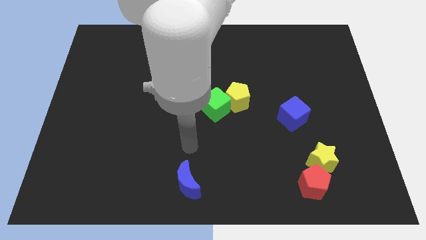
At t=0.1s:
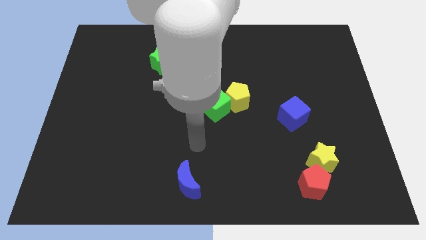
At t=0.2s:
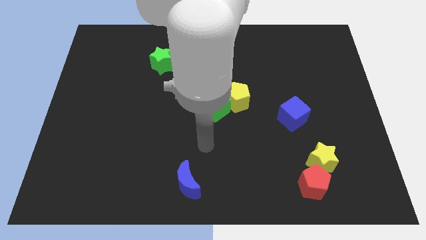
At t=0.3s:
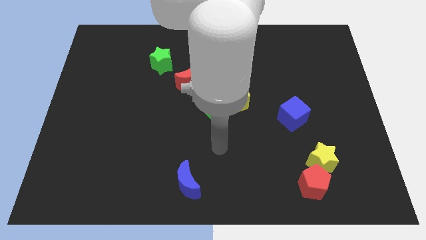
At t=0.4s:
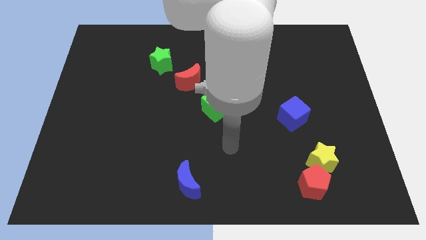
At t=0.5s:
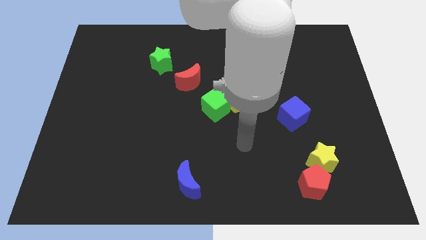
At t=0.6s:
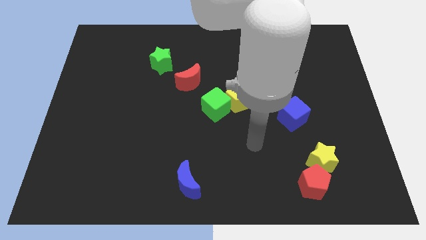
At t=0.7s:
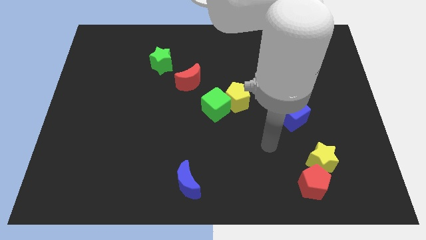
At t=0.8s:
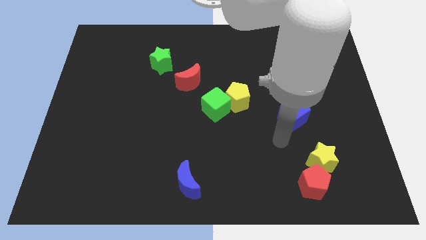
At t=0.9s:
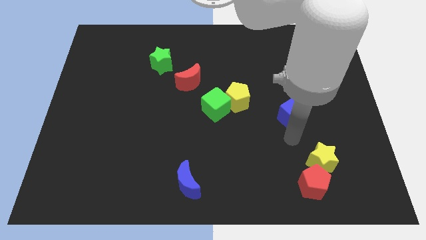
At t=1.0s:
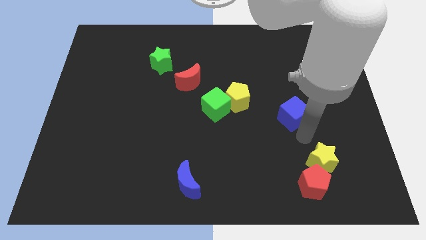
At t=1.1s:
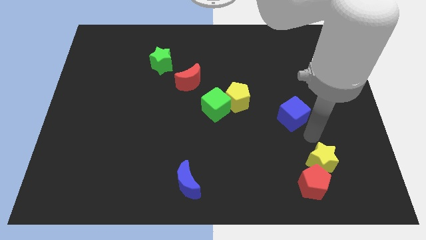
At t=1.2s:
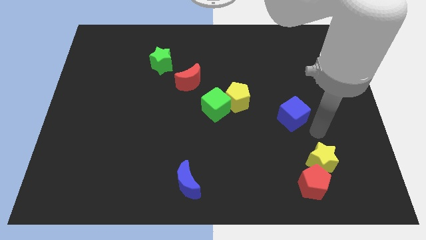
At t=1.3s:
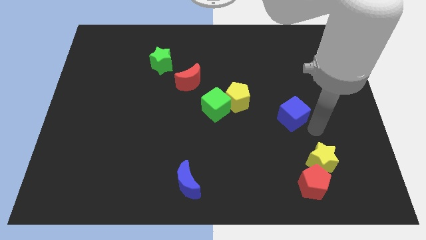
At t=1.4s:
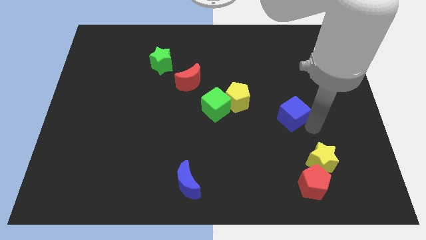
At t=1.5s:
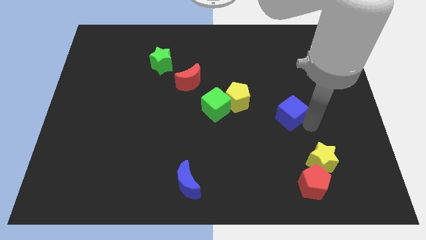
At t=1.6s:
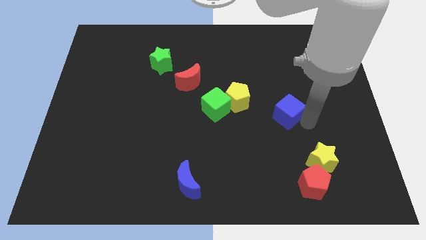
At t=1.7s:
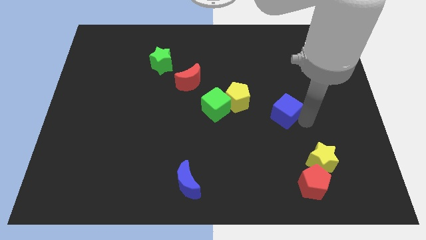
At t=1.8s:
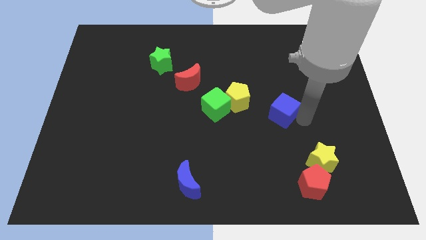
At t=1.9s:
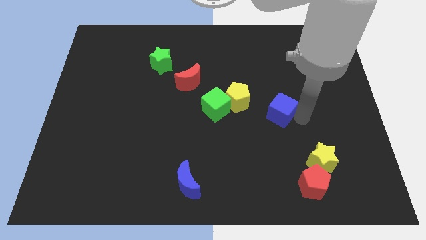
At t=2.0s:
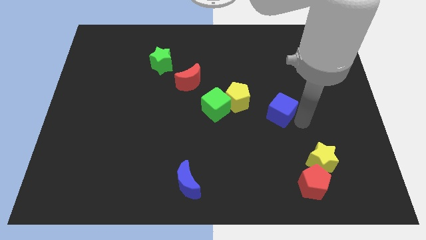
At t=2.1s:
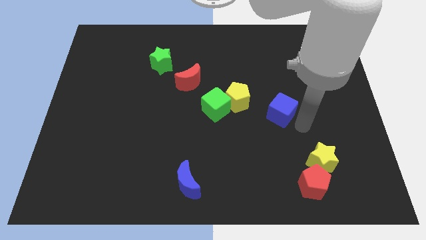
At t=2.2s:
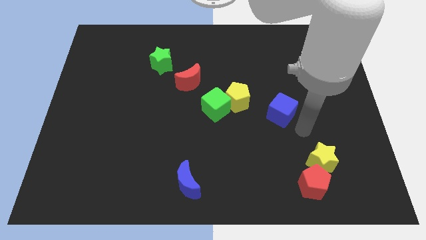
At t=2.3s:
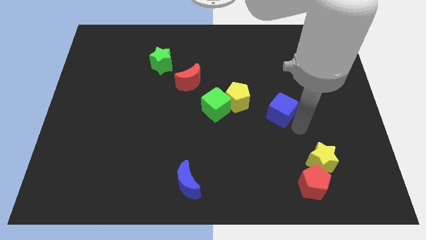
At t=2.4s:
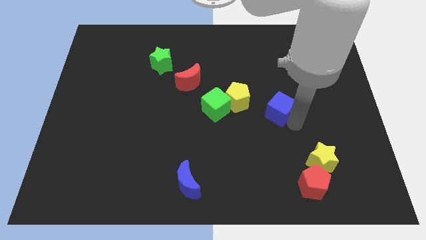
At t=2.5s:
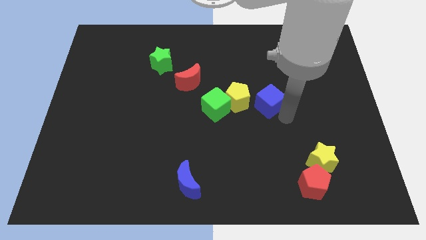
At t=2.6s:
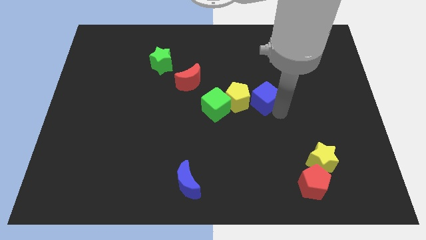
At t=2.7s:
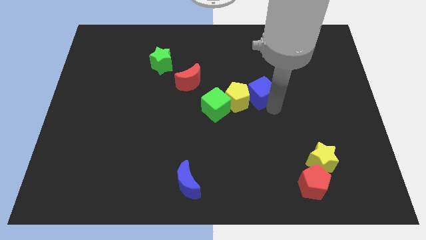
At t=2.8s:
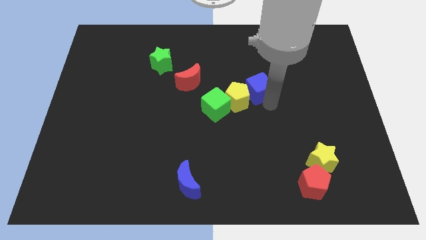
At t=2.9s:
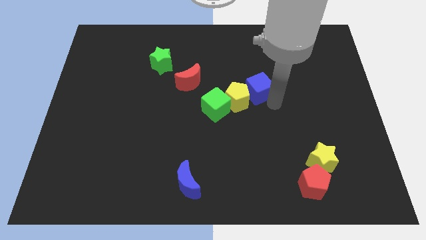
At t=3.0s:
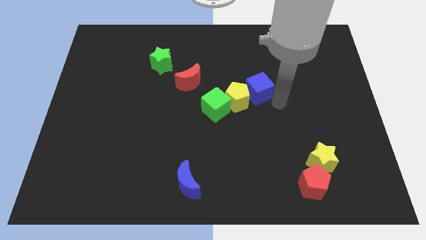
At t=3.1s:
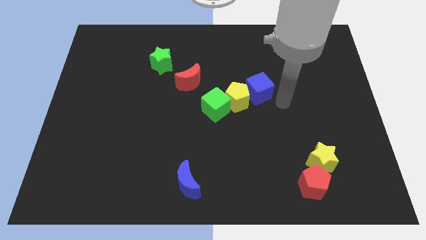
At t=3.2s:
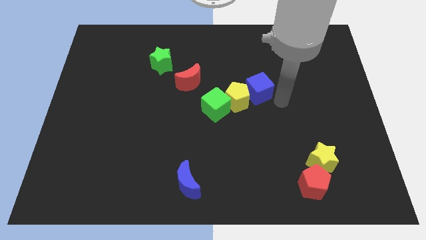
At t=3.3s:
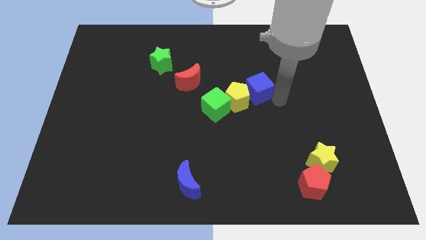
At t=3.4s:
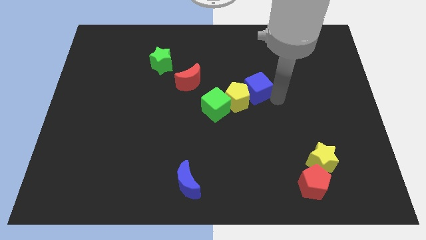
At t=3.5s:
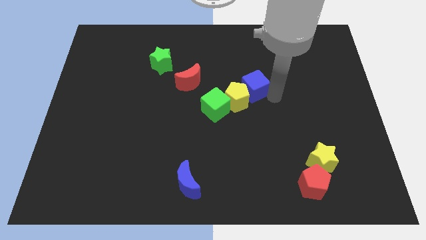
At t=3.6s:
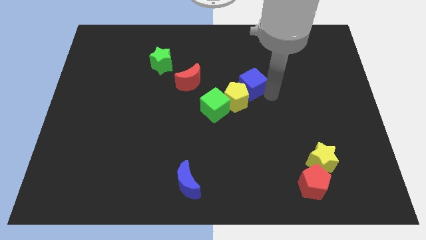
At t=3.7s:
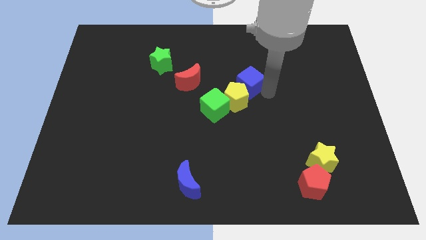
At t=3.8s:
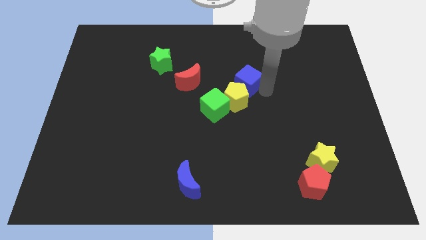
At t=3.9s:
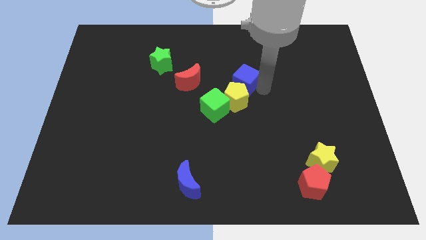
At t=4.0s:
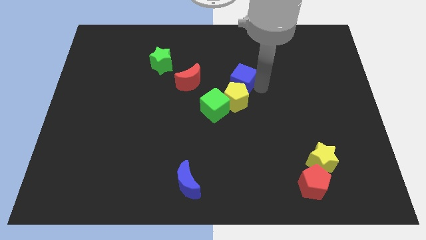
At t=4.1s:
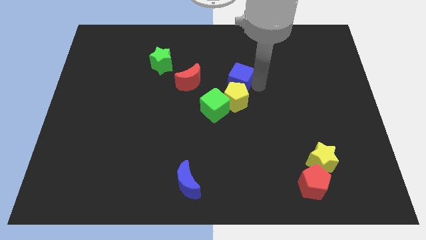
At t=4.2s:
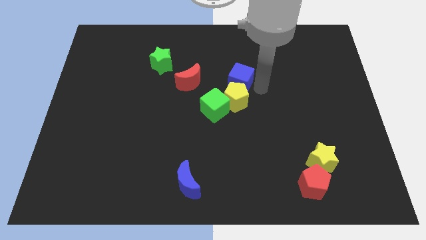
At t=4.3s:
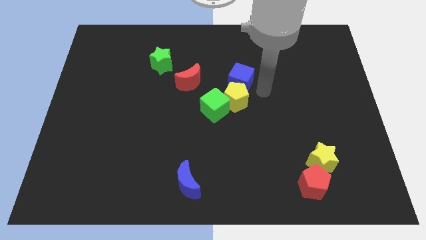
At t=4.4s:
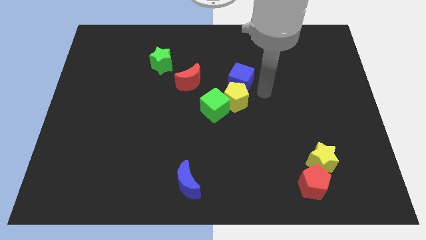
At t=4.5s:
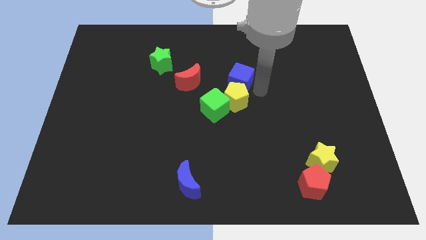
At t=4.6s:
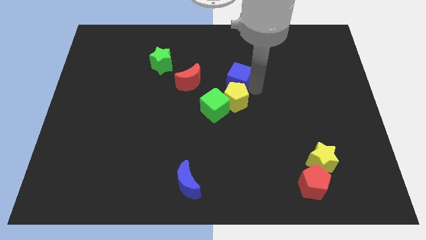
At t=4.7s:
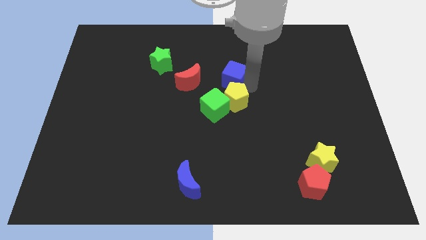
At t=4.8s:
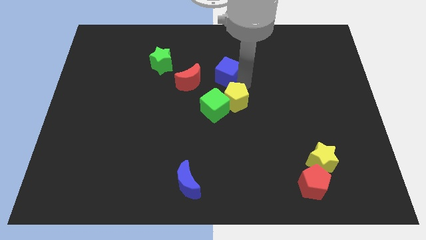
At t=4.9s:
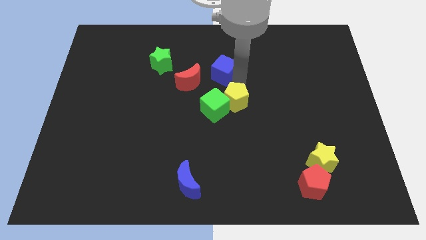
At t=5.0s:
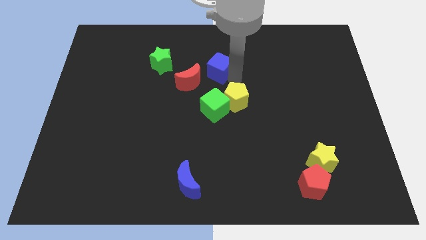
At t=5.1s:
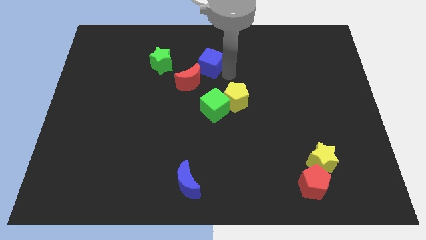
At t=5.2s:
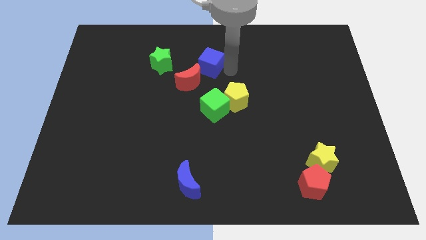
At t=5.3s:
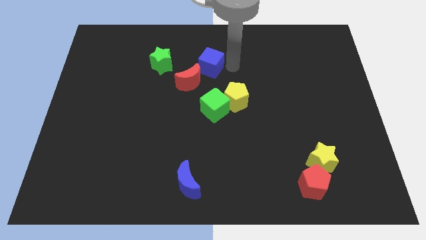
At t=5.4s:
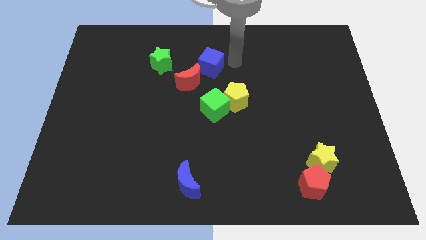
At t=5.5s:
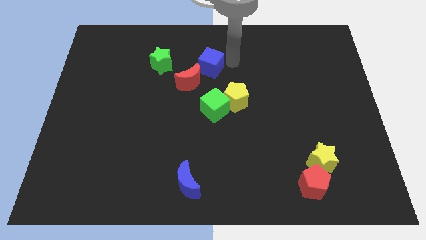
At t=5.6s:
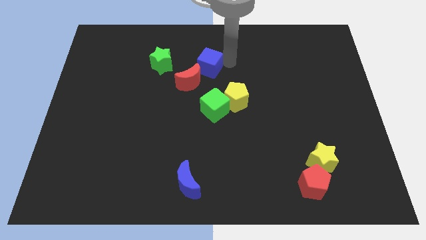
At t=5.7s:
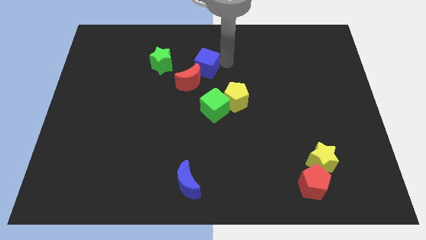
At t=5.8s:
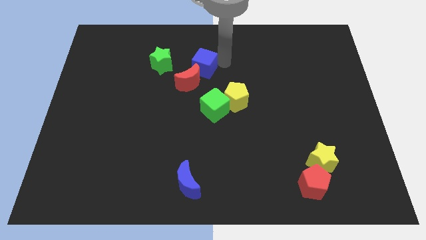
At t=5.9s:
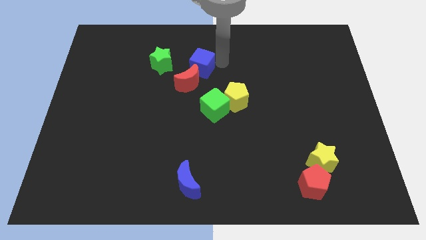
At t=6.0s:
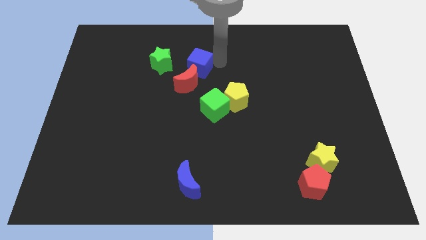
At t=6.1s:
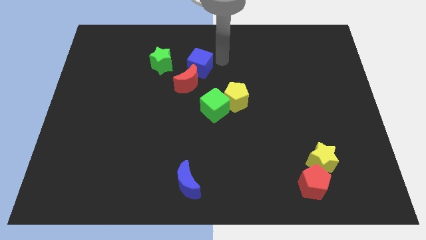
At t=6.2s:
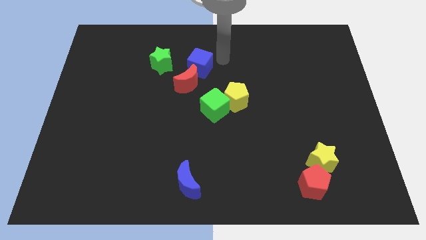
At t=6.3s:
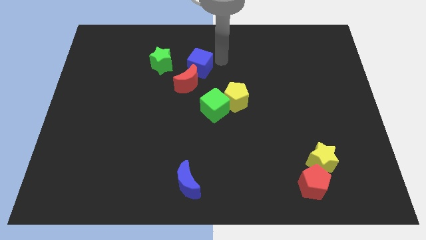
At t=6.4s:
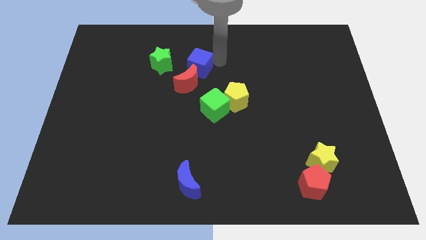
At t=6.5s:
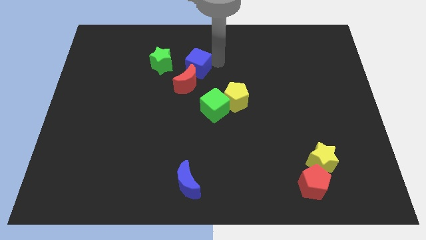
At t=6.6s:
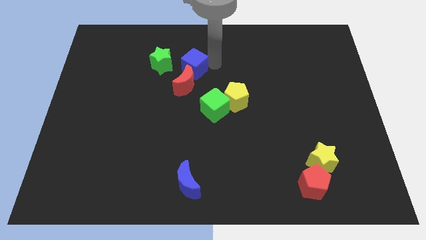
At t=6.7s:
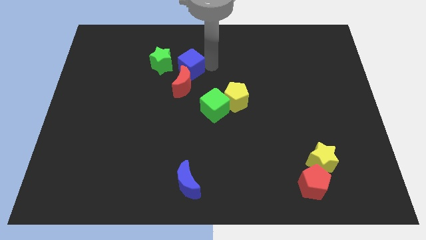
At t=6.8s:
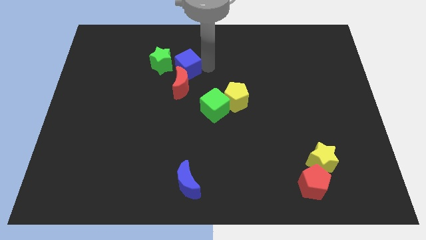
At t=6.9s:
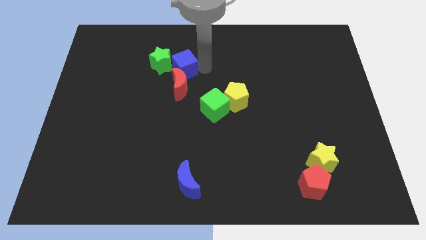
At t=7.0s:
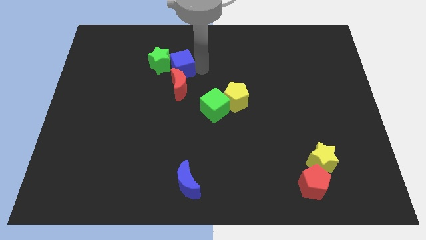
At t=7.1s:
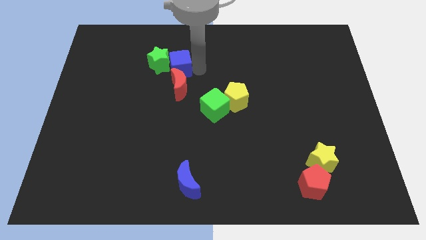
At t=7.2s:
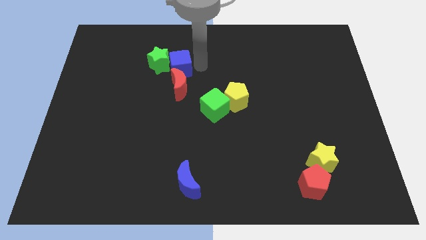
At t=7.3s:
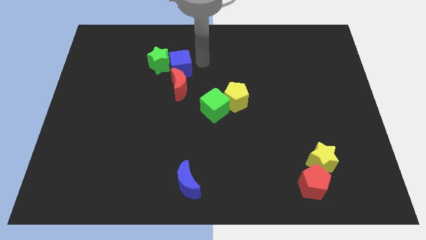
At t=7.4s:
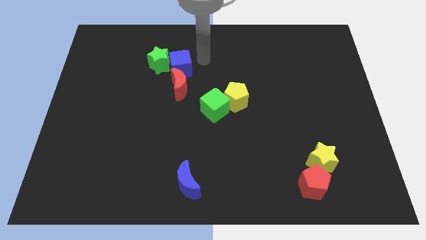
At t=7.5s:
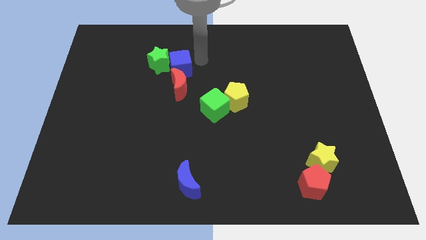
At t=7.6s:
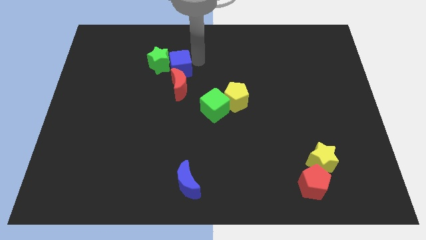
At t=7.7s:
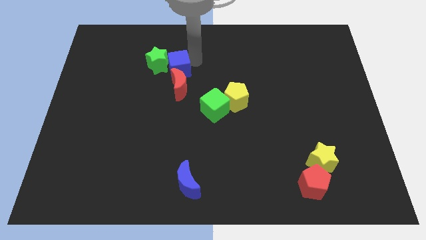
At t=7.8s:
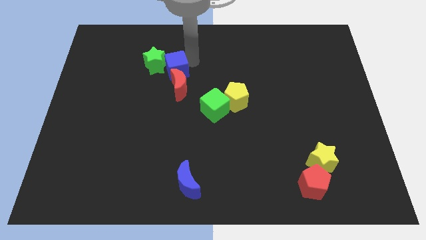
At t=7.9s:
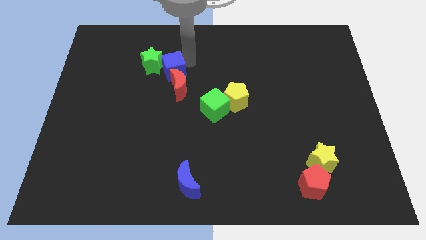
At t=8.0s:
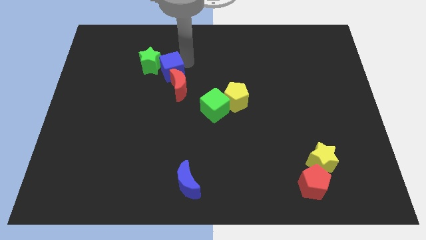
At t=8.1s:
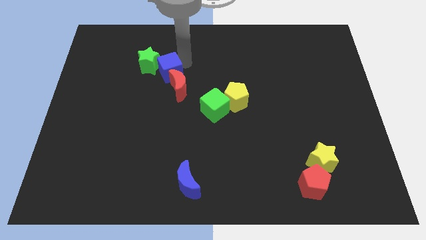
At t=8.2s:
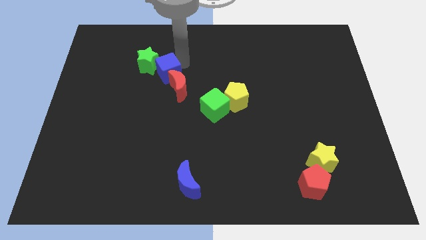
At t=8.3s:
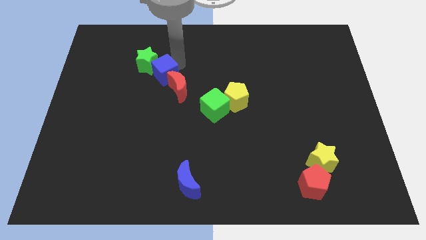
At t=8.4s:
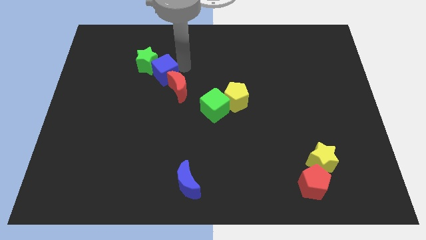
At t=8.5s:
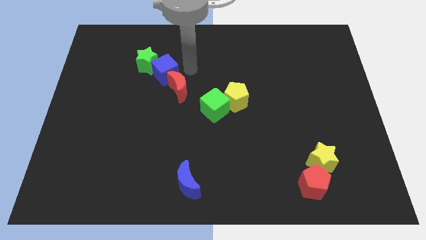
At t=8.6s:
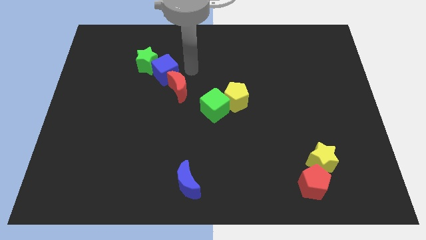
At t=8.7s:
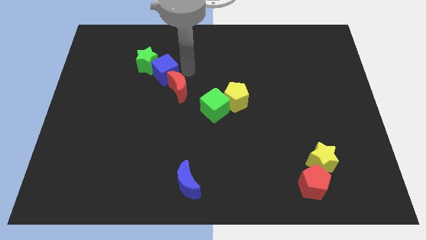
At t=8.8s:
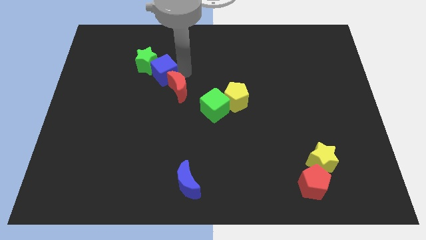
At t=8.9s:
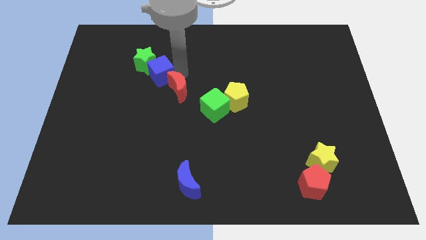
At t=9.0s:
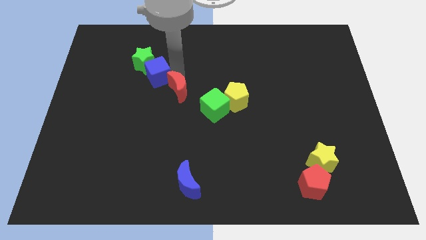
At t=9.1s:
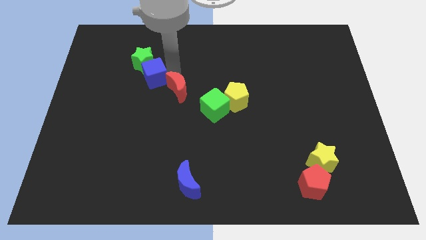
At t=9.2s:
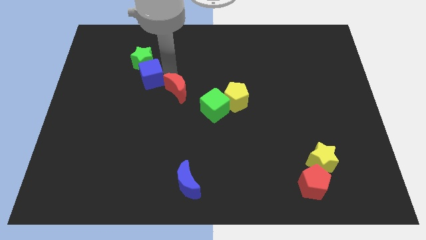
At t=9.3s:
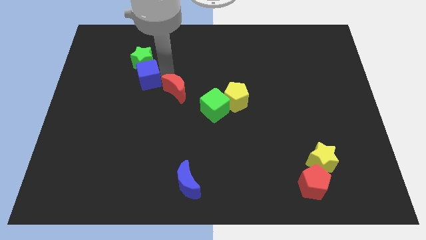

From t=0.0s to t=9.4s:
put the blue cube to the bottom left of the green star
